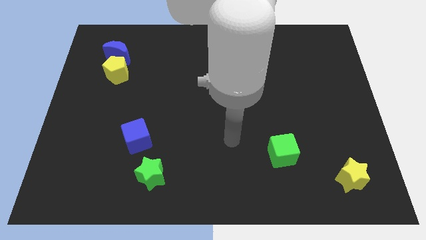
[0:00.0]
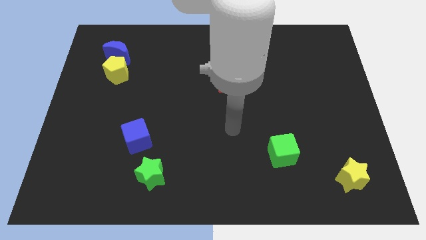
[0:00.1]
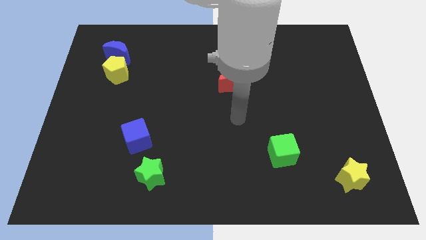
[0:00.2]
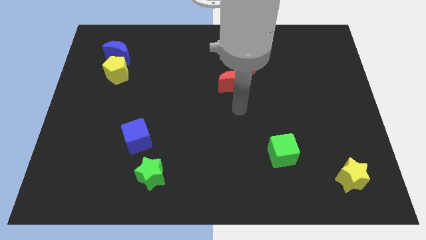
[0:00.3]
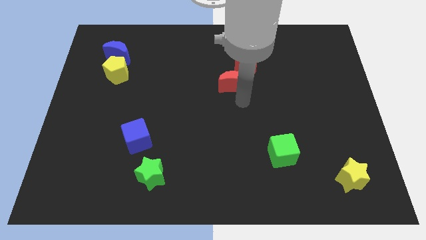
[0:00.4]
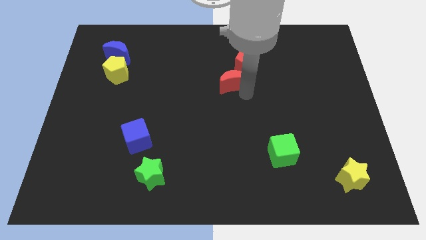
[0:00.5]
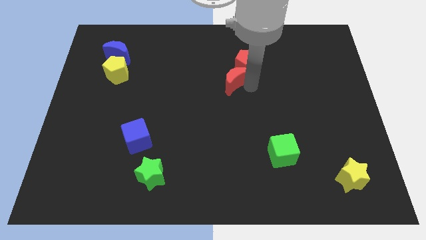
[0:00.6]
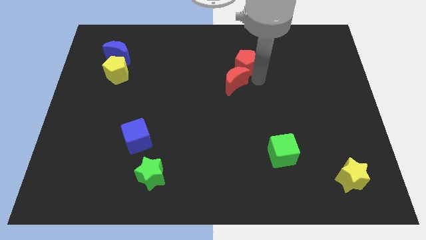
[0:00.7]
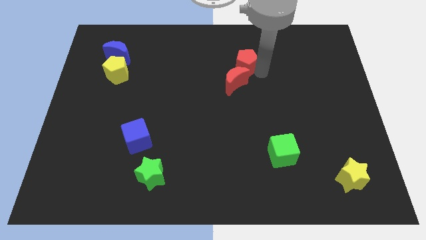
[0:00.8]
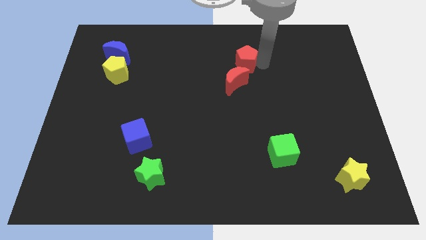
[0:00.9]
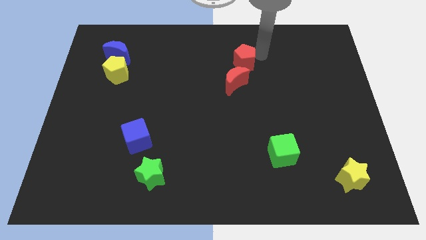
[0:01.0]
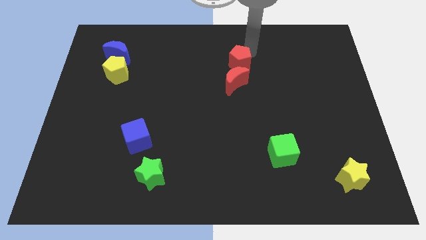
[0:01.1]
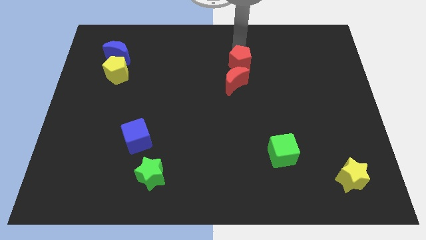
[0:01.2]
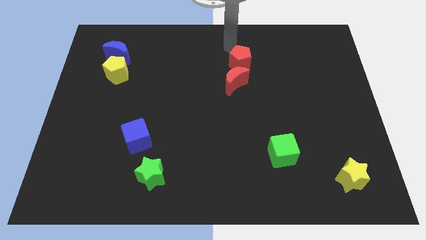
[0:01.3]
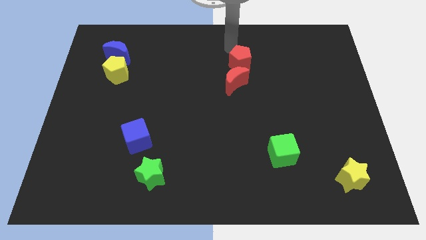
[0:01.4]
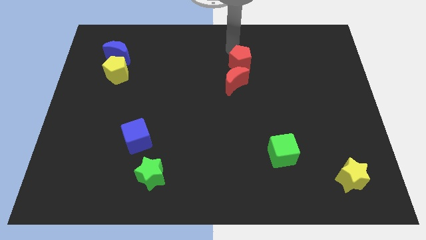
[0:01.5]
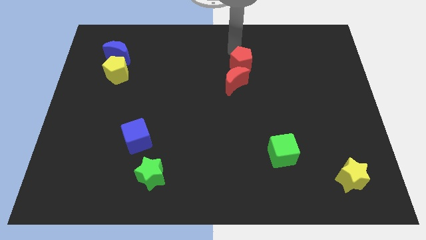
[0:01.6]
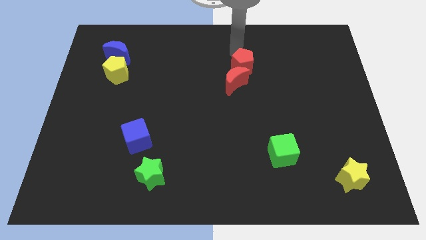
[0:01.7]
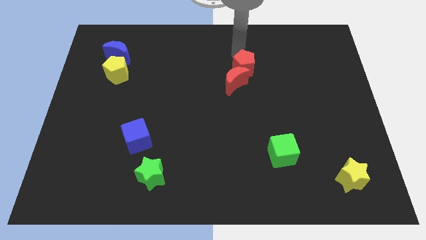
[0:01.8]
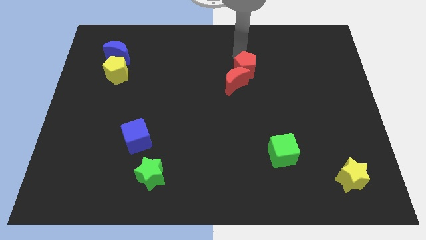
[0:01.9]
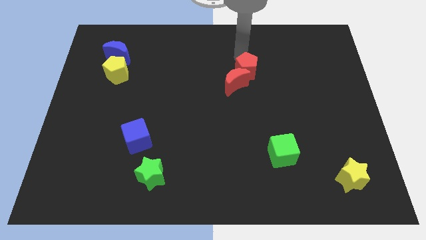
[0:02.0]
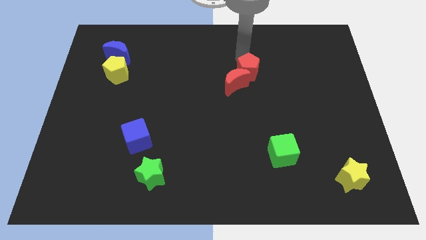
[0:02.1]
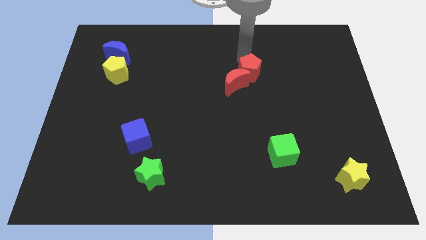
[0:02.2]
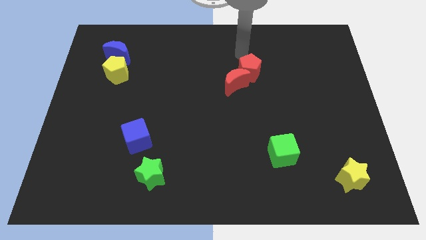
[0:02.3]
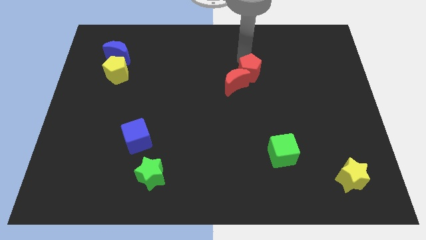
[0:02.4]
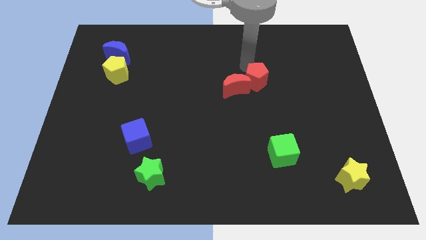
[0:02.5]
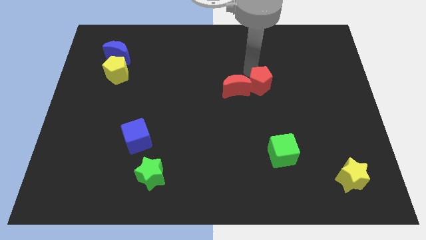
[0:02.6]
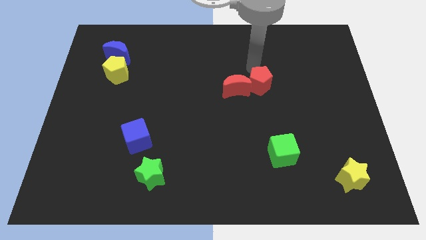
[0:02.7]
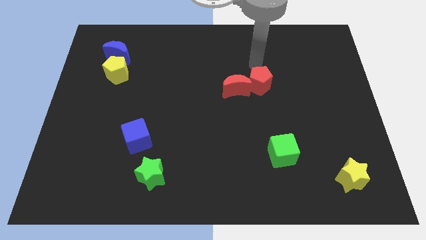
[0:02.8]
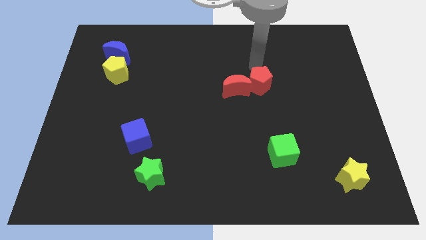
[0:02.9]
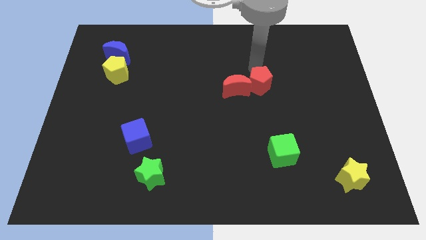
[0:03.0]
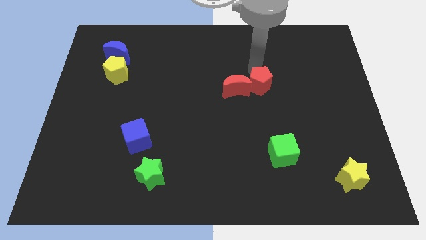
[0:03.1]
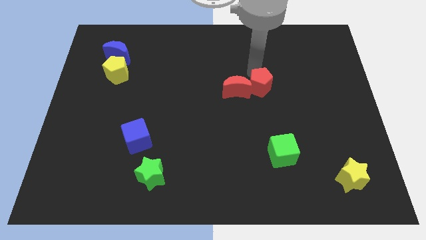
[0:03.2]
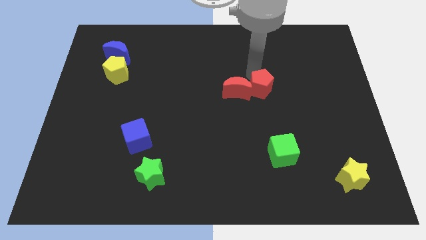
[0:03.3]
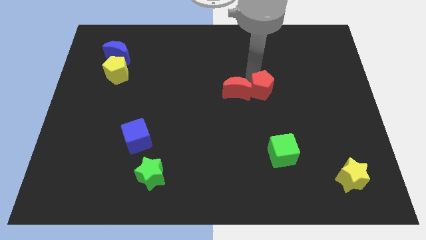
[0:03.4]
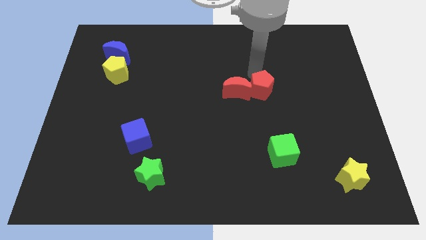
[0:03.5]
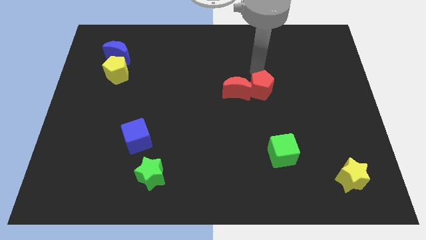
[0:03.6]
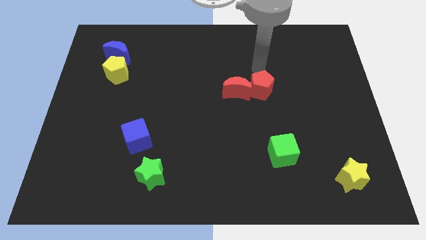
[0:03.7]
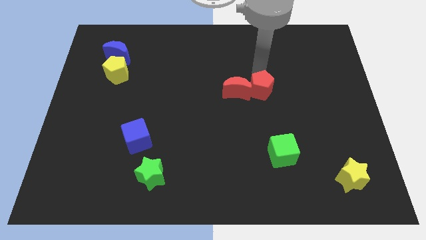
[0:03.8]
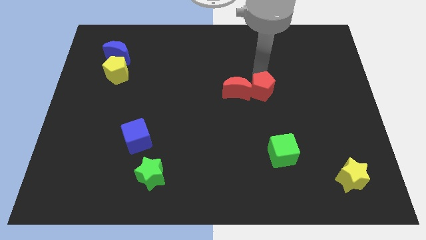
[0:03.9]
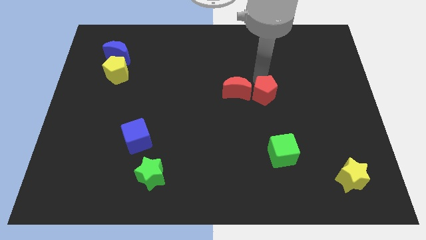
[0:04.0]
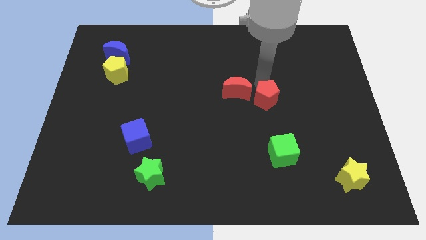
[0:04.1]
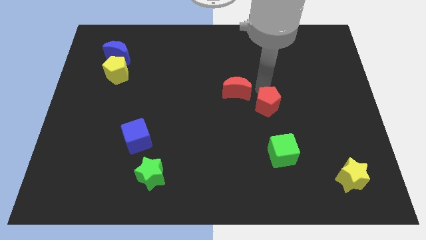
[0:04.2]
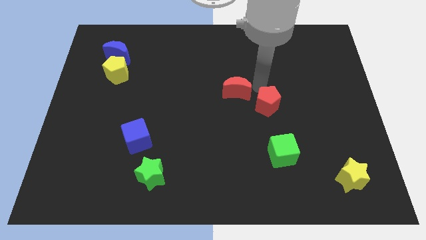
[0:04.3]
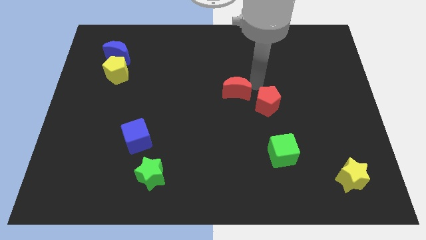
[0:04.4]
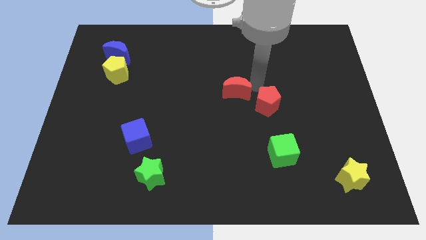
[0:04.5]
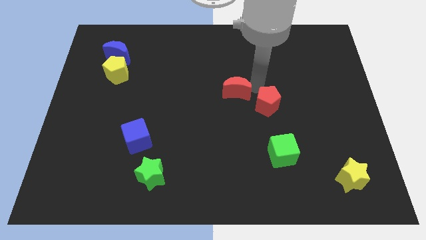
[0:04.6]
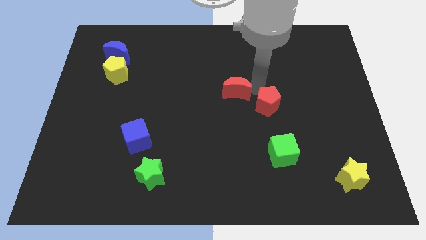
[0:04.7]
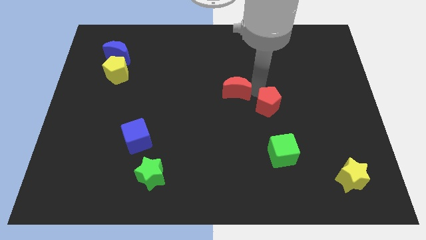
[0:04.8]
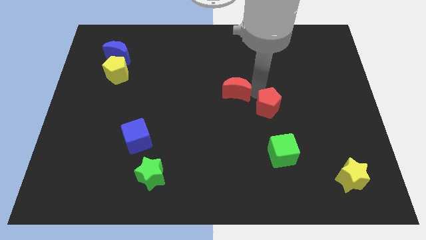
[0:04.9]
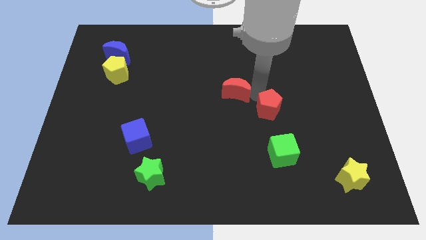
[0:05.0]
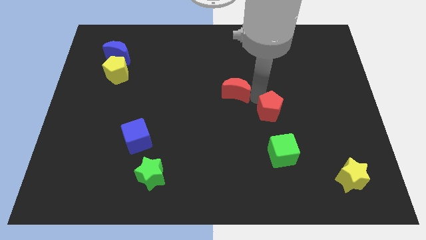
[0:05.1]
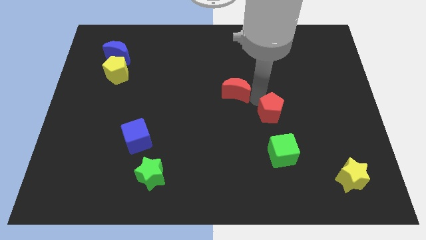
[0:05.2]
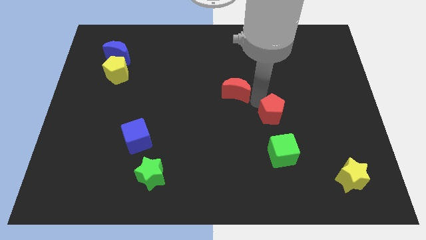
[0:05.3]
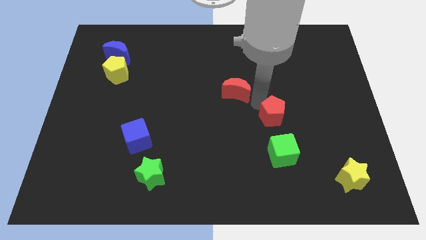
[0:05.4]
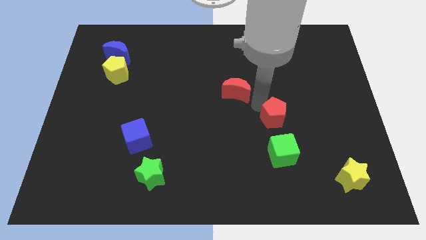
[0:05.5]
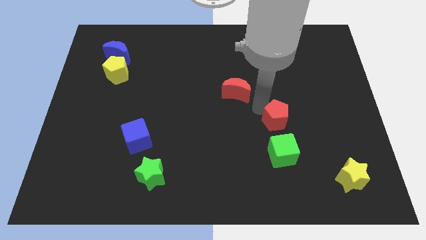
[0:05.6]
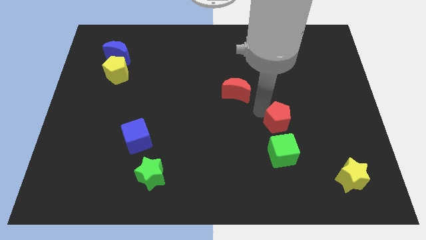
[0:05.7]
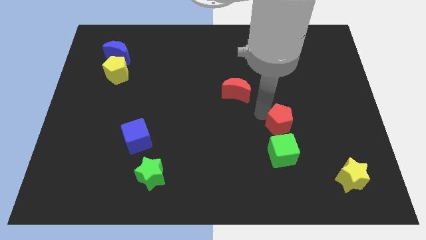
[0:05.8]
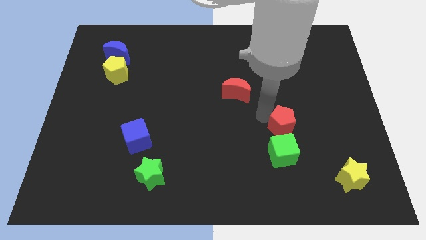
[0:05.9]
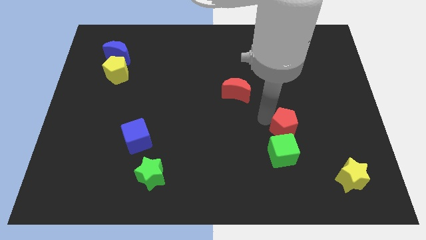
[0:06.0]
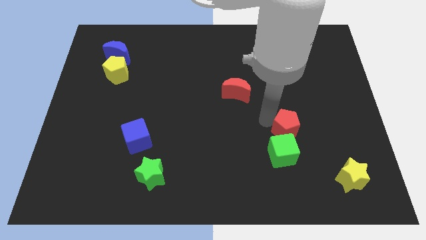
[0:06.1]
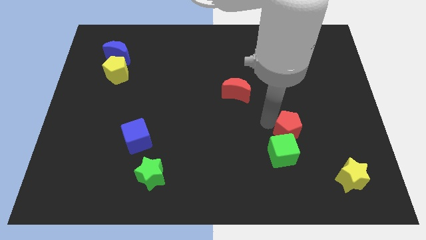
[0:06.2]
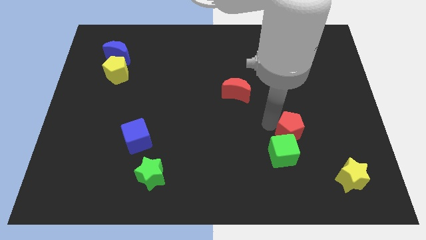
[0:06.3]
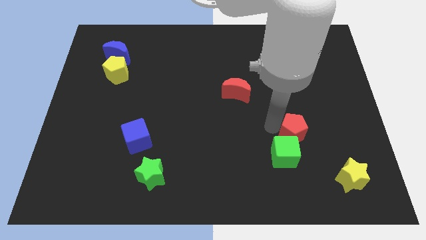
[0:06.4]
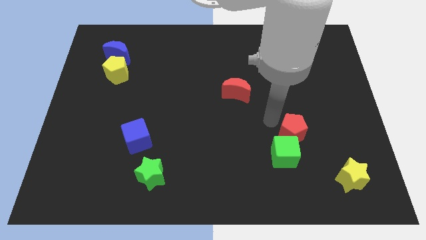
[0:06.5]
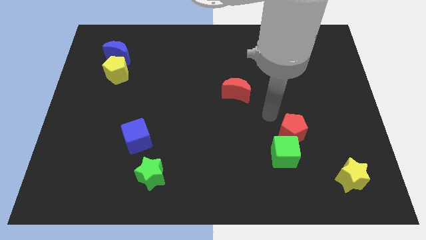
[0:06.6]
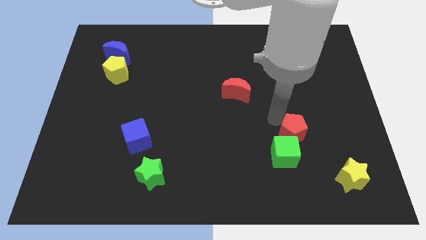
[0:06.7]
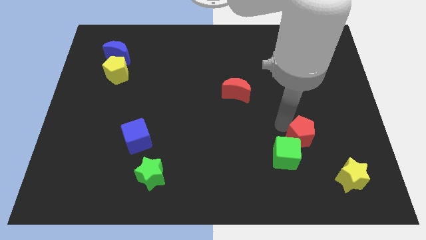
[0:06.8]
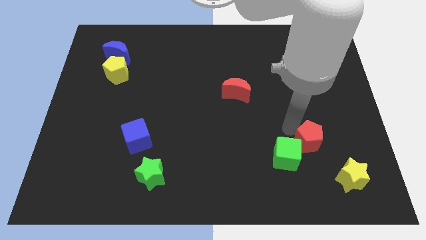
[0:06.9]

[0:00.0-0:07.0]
push the red pentagon to the top left of the yellow star
